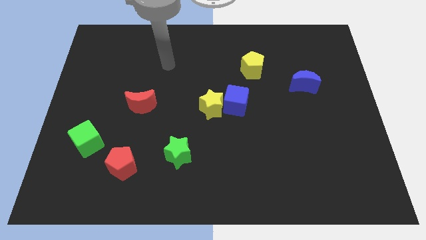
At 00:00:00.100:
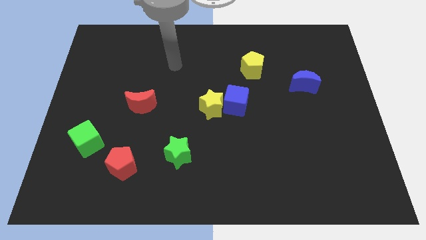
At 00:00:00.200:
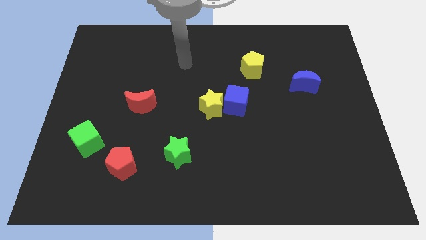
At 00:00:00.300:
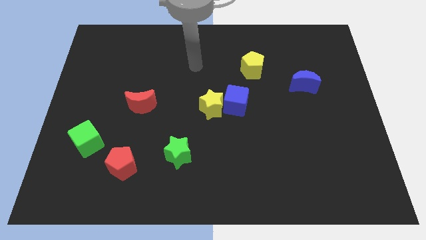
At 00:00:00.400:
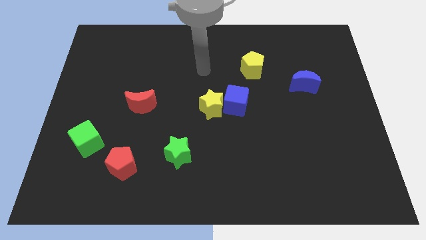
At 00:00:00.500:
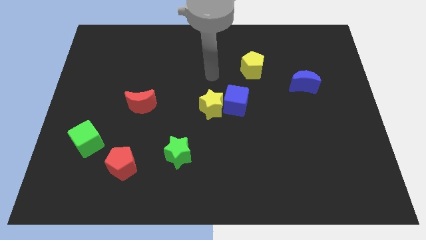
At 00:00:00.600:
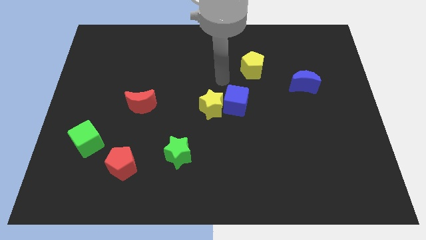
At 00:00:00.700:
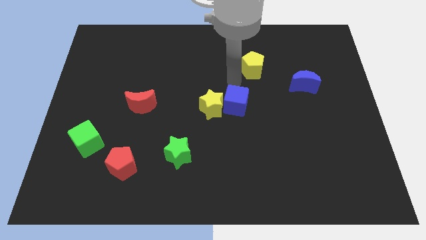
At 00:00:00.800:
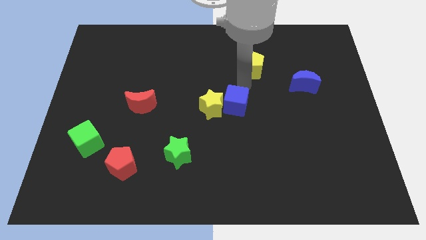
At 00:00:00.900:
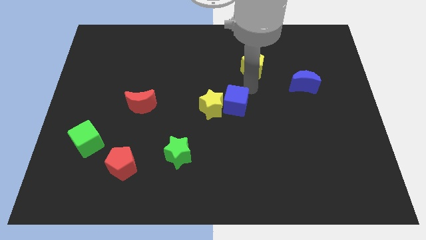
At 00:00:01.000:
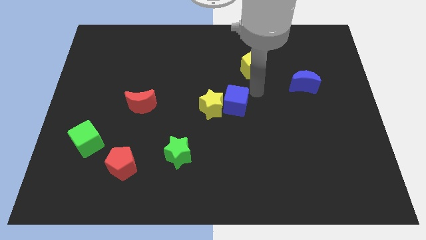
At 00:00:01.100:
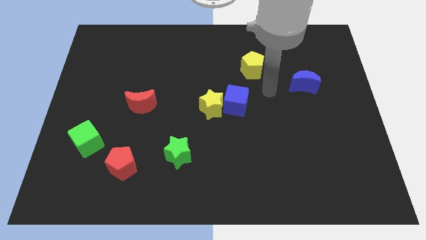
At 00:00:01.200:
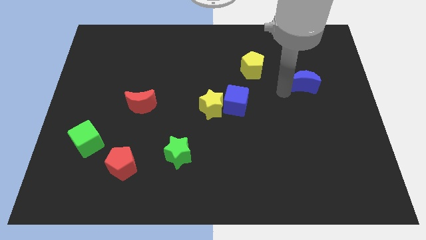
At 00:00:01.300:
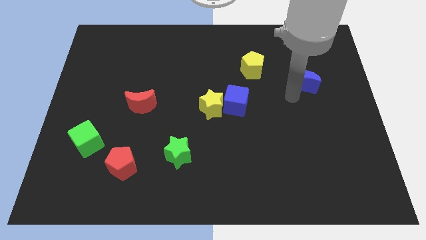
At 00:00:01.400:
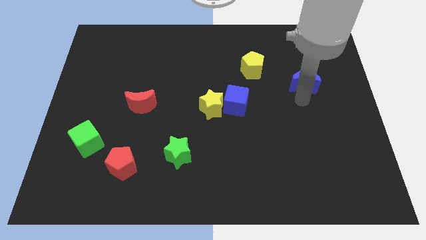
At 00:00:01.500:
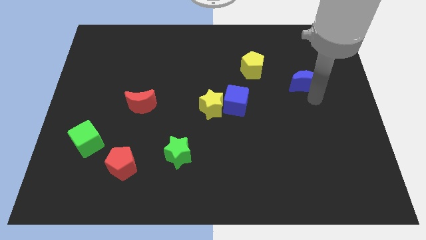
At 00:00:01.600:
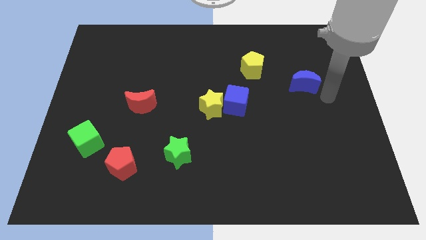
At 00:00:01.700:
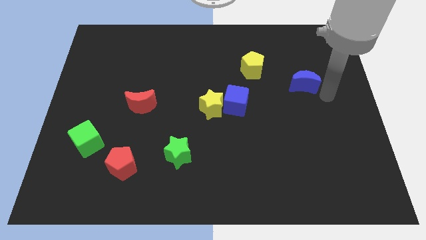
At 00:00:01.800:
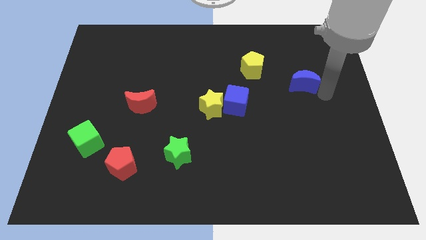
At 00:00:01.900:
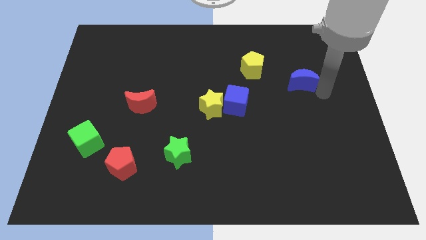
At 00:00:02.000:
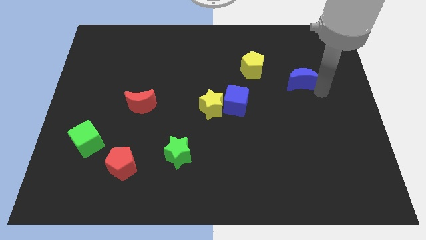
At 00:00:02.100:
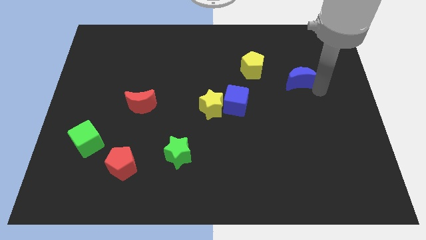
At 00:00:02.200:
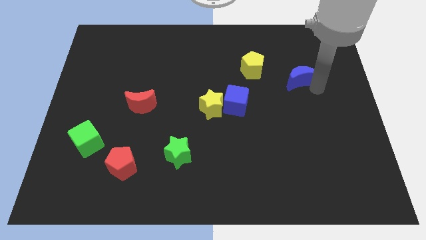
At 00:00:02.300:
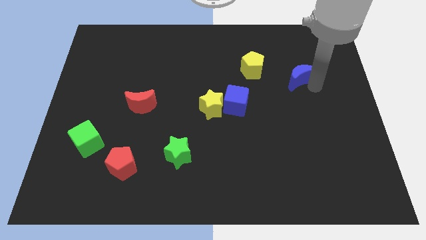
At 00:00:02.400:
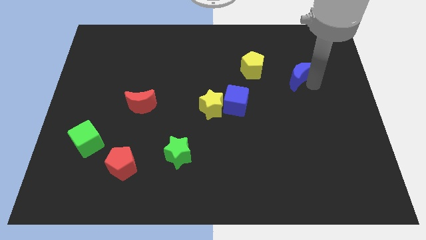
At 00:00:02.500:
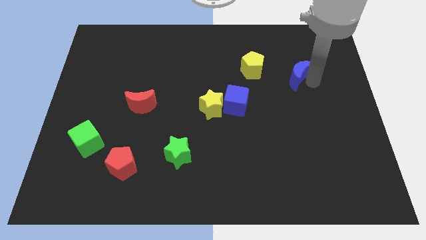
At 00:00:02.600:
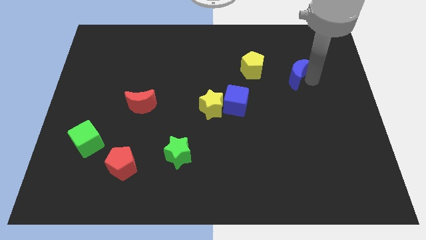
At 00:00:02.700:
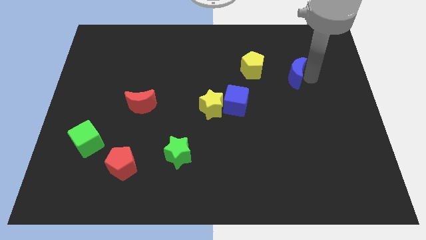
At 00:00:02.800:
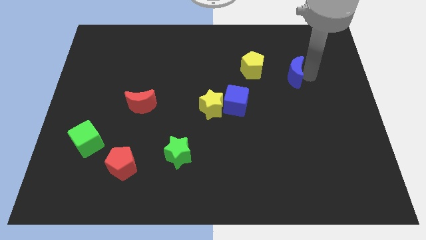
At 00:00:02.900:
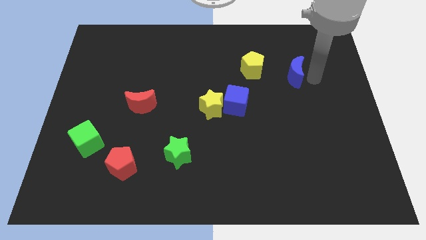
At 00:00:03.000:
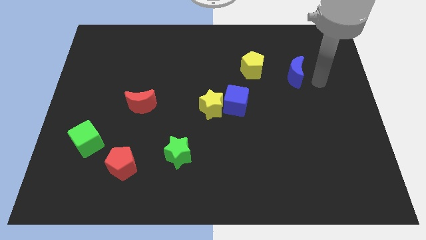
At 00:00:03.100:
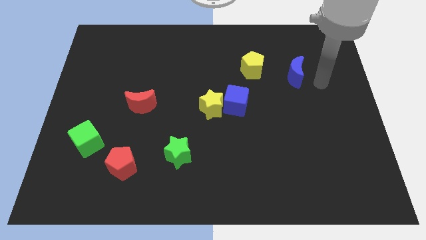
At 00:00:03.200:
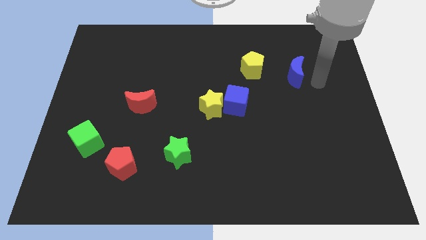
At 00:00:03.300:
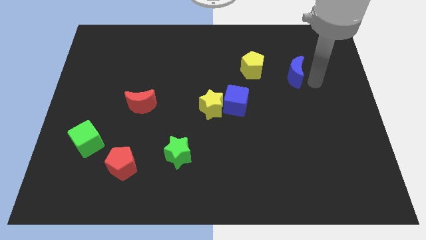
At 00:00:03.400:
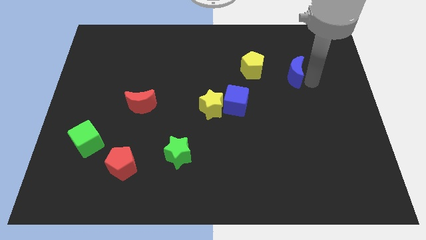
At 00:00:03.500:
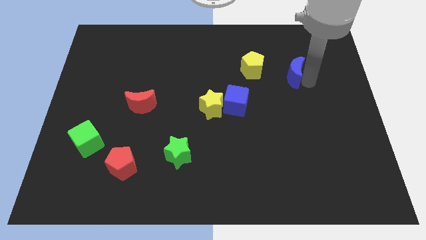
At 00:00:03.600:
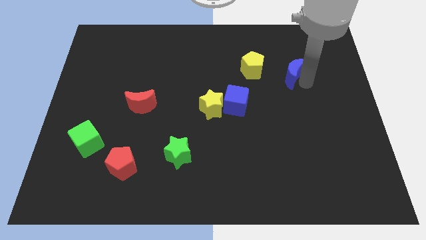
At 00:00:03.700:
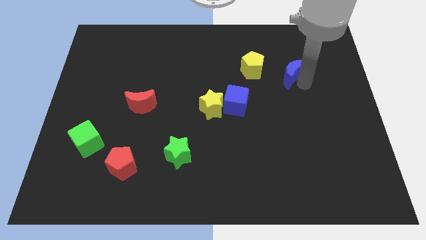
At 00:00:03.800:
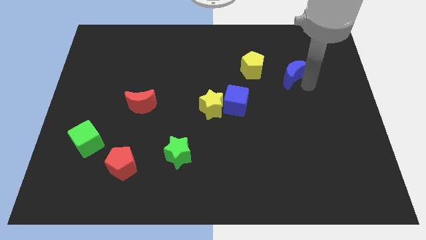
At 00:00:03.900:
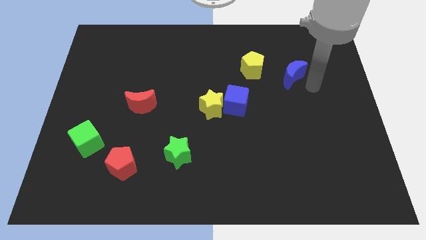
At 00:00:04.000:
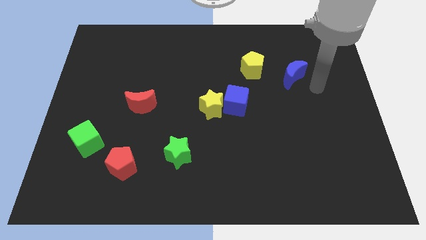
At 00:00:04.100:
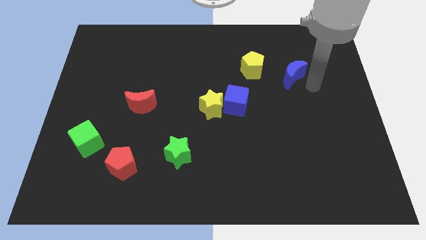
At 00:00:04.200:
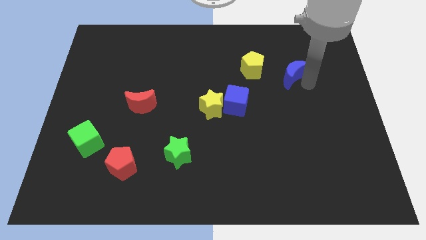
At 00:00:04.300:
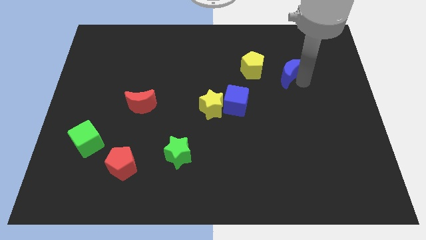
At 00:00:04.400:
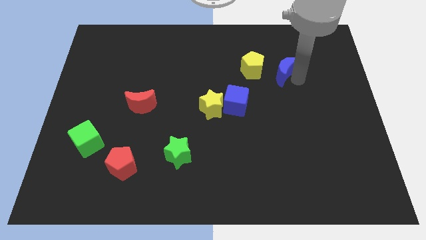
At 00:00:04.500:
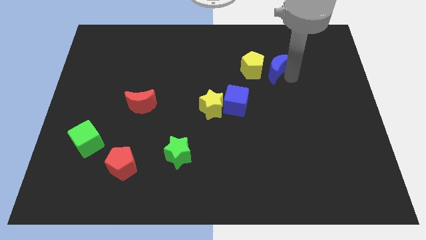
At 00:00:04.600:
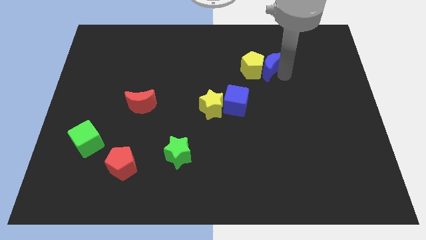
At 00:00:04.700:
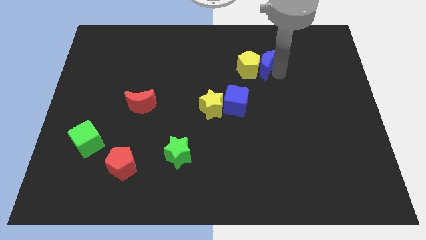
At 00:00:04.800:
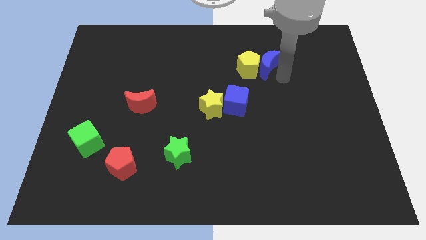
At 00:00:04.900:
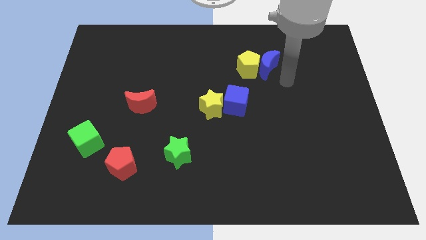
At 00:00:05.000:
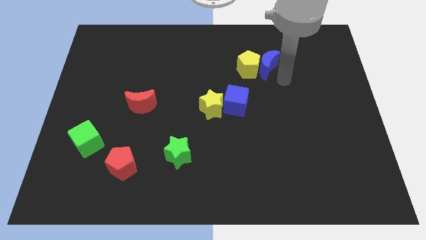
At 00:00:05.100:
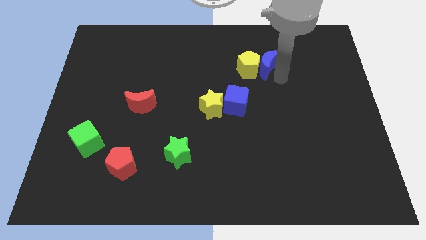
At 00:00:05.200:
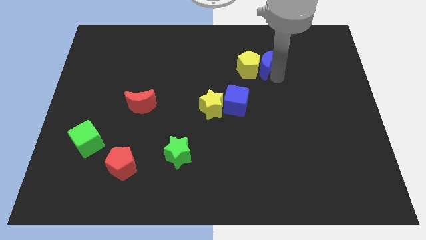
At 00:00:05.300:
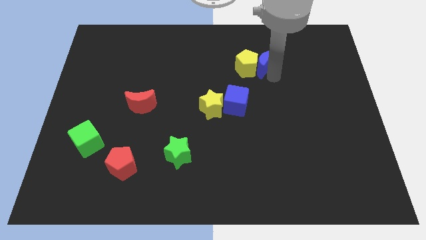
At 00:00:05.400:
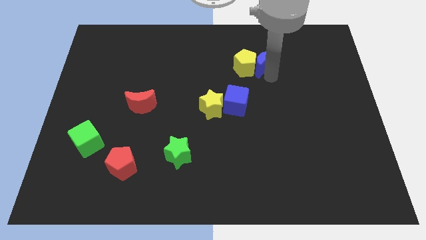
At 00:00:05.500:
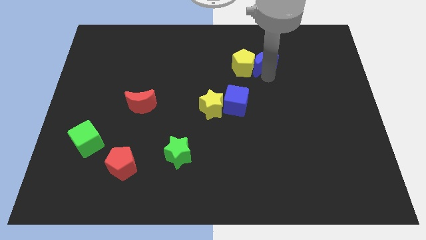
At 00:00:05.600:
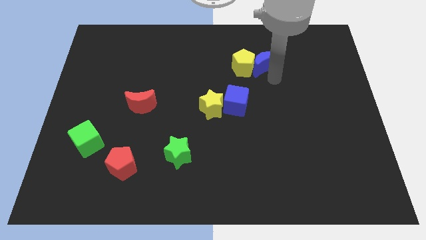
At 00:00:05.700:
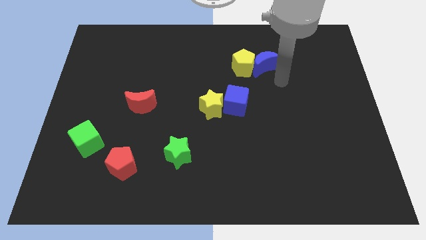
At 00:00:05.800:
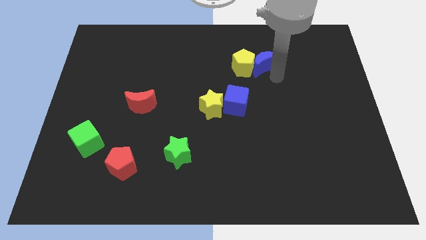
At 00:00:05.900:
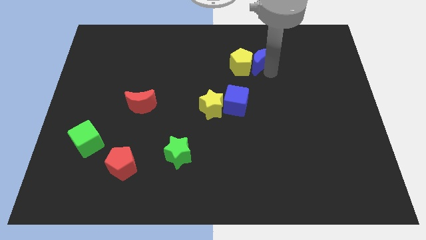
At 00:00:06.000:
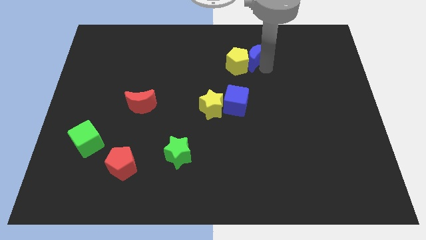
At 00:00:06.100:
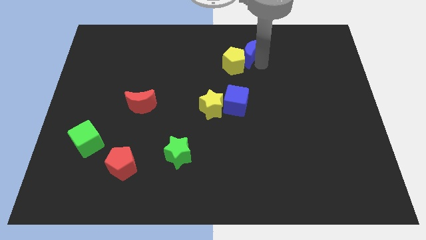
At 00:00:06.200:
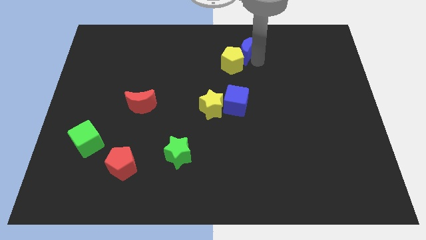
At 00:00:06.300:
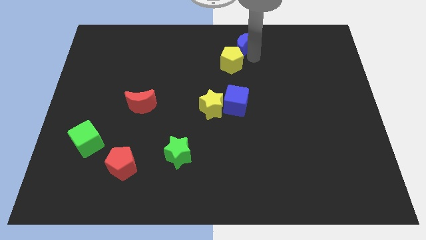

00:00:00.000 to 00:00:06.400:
push the blue moon to the towards your base

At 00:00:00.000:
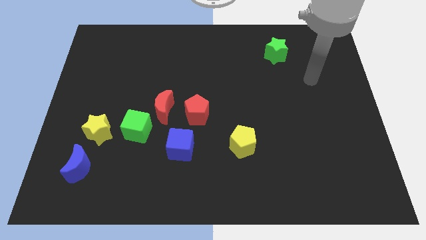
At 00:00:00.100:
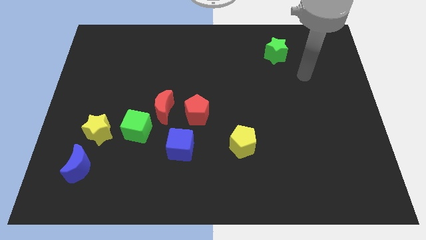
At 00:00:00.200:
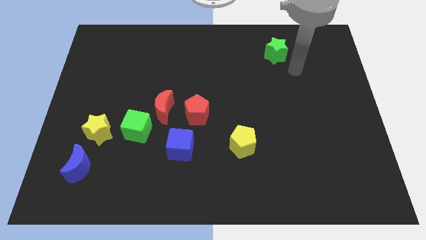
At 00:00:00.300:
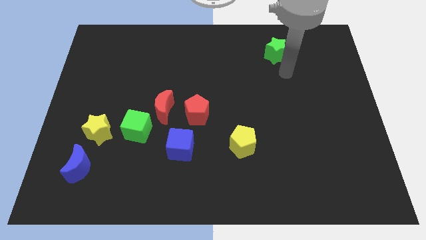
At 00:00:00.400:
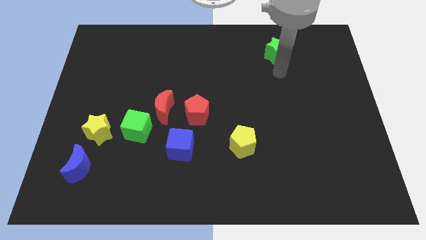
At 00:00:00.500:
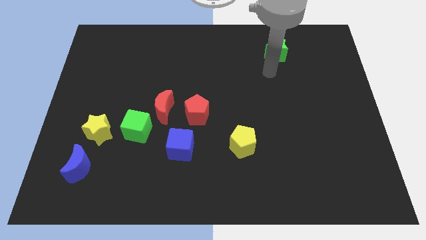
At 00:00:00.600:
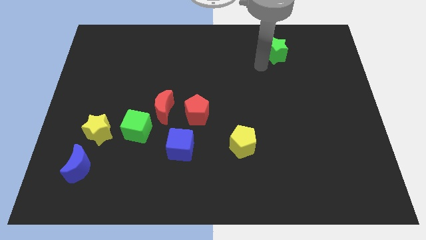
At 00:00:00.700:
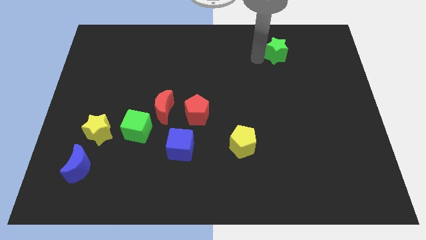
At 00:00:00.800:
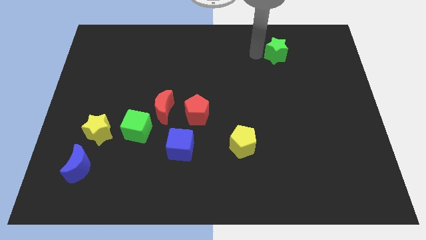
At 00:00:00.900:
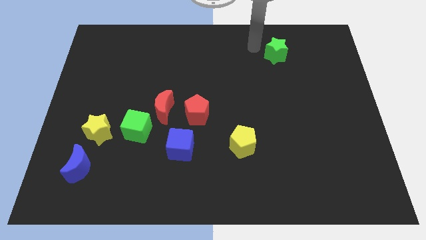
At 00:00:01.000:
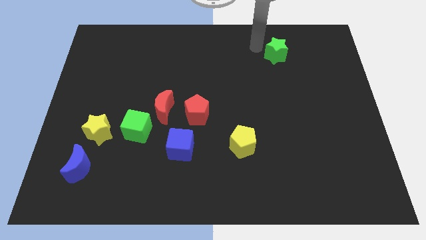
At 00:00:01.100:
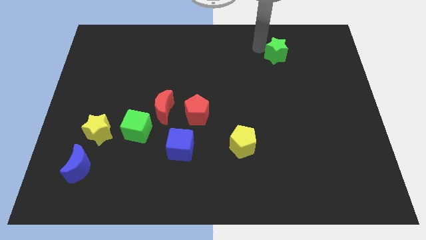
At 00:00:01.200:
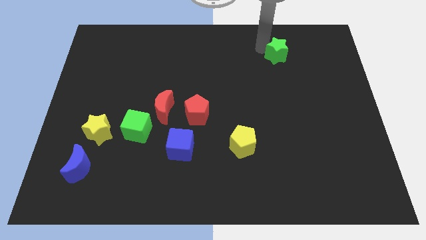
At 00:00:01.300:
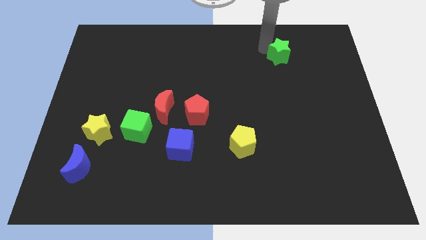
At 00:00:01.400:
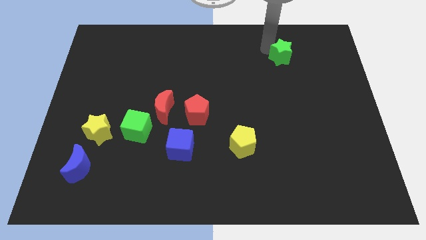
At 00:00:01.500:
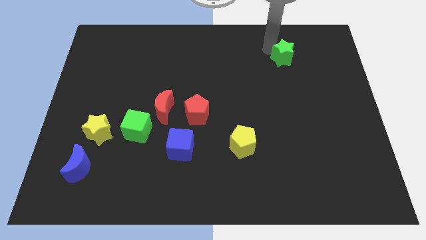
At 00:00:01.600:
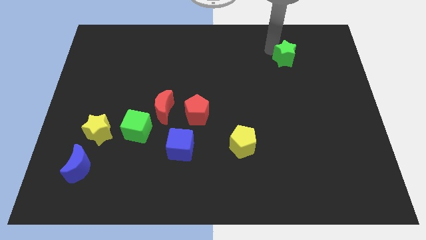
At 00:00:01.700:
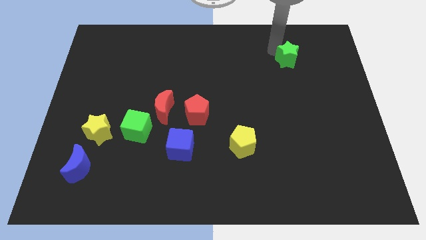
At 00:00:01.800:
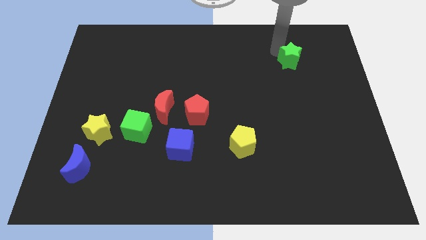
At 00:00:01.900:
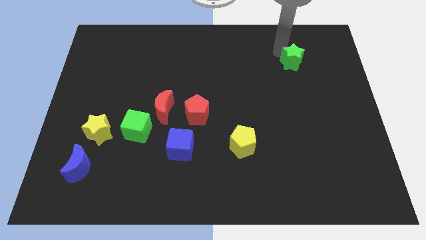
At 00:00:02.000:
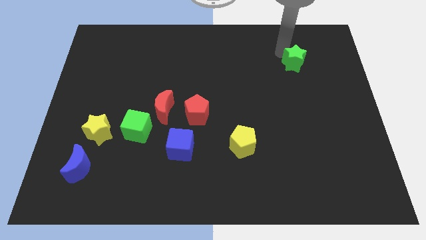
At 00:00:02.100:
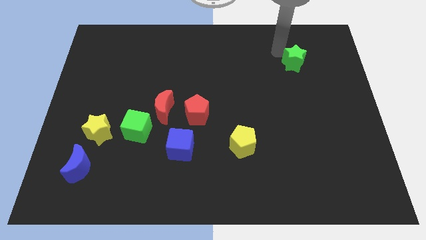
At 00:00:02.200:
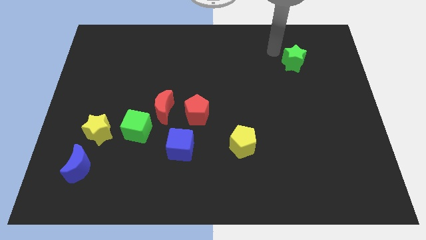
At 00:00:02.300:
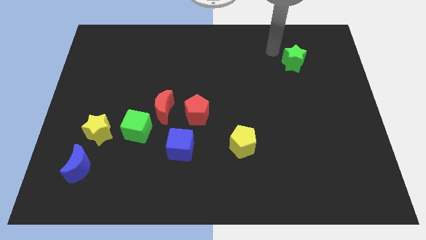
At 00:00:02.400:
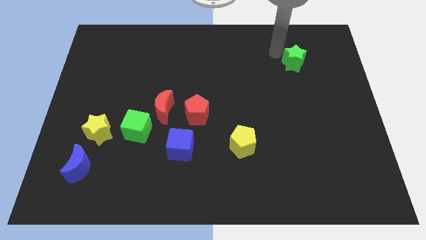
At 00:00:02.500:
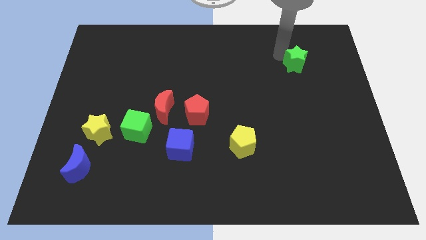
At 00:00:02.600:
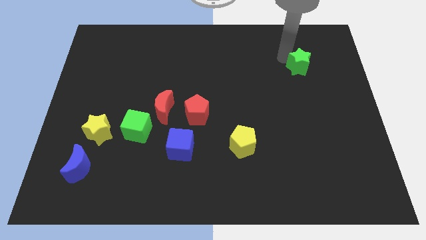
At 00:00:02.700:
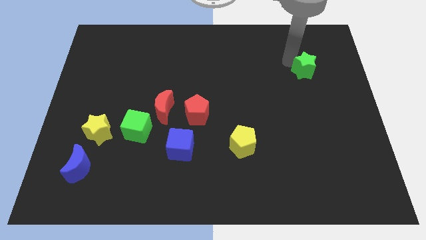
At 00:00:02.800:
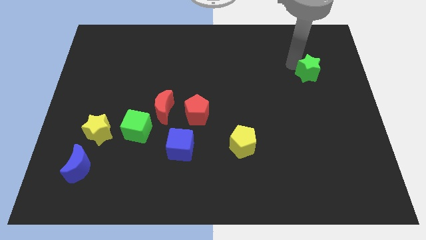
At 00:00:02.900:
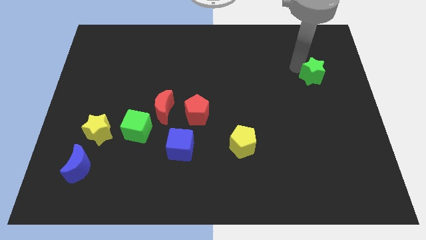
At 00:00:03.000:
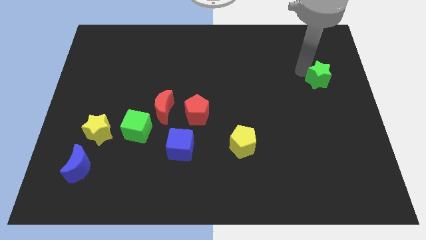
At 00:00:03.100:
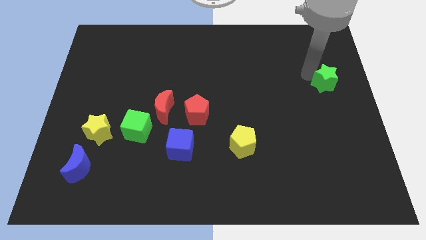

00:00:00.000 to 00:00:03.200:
slide the green star to the right side of the board
